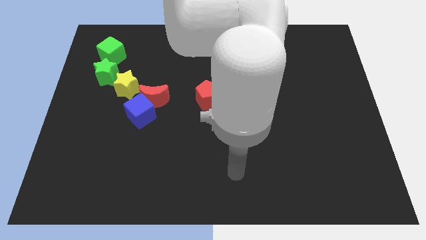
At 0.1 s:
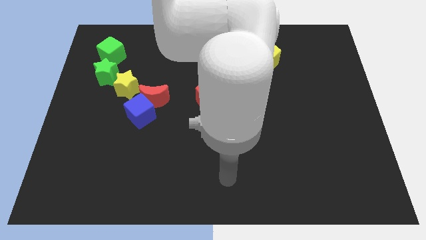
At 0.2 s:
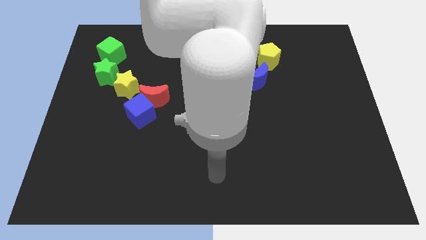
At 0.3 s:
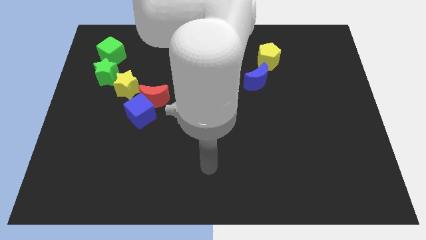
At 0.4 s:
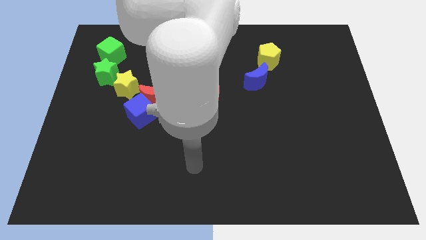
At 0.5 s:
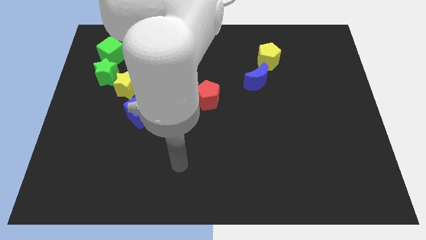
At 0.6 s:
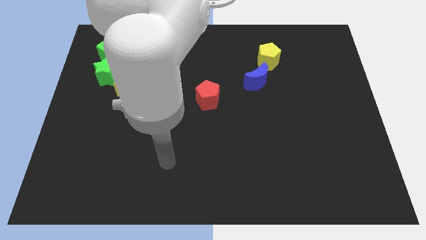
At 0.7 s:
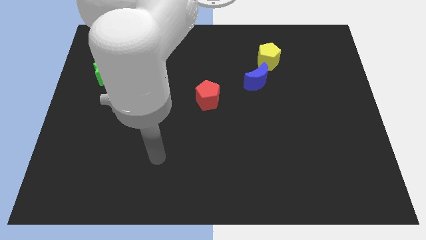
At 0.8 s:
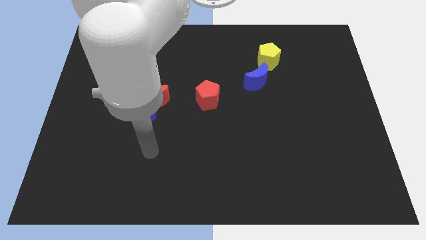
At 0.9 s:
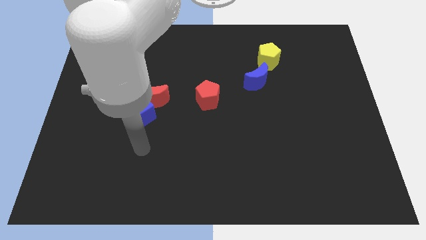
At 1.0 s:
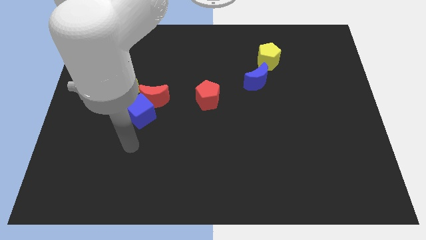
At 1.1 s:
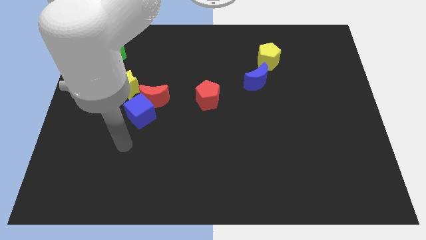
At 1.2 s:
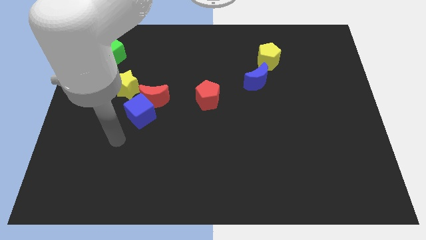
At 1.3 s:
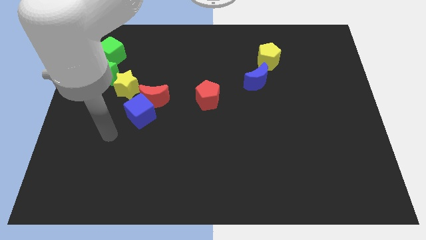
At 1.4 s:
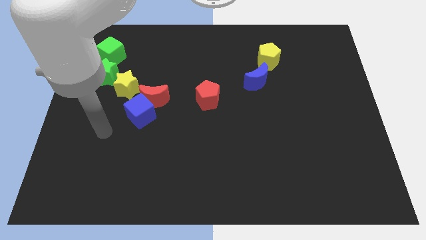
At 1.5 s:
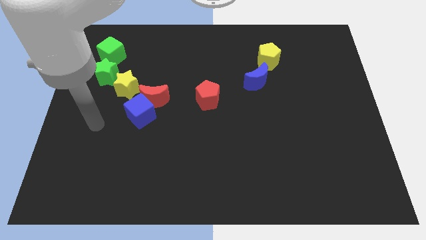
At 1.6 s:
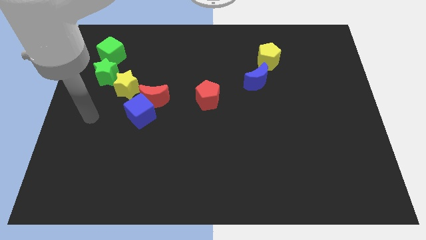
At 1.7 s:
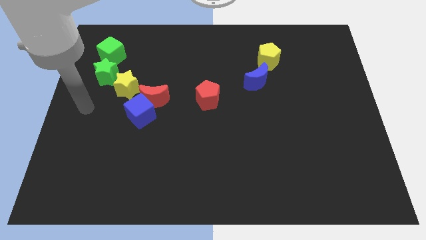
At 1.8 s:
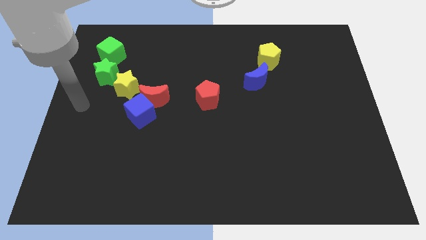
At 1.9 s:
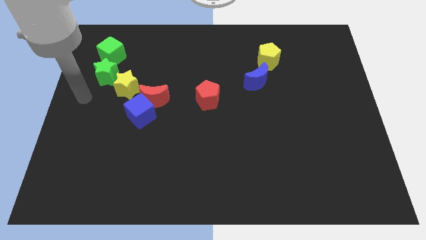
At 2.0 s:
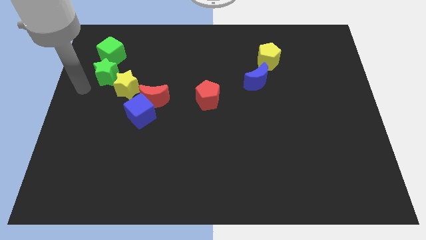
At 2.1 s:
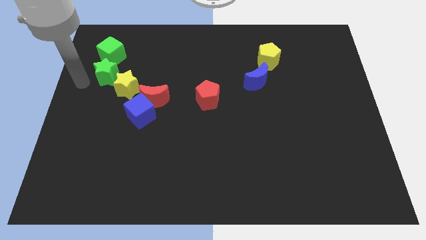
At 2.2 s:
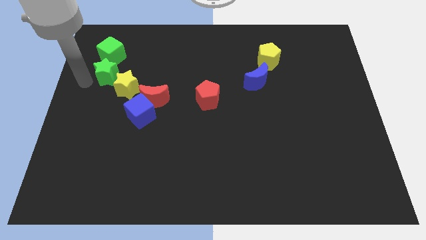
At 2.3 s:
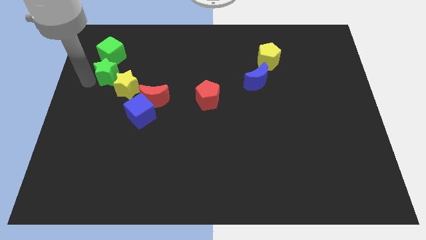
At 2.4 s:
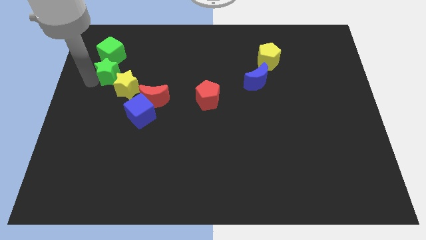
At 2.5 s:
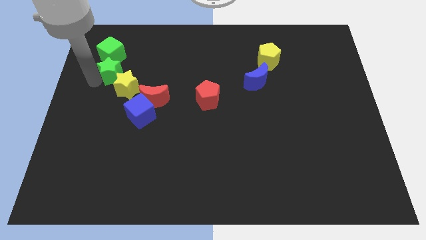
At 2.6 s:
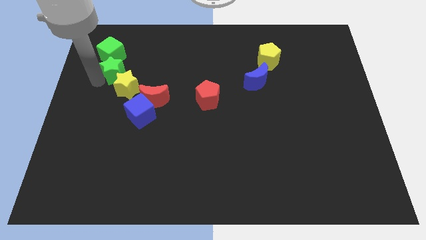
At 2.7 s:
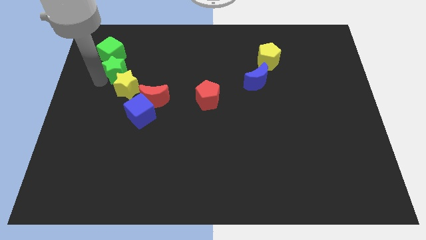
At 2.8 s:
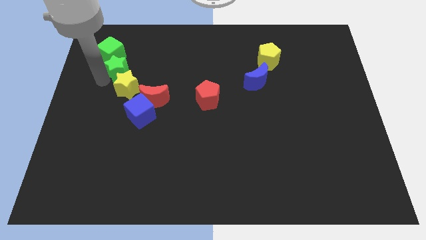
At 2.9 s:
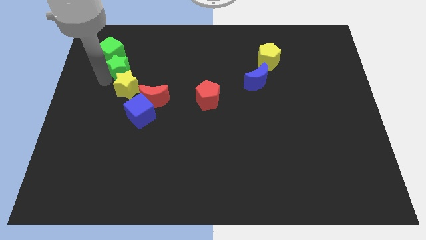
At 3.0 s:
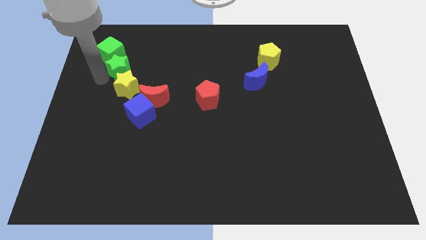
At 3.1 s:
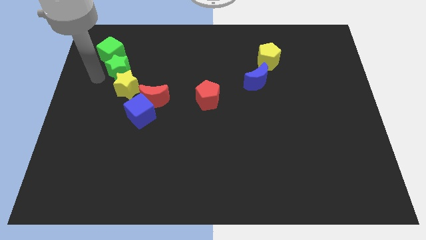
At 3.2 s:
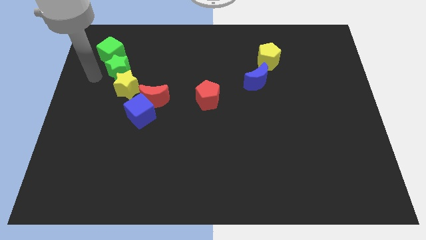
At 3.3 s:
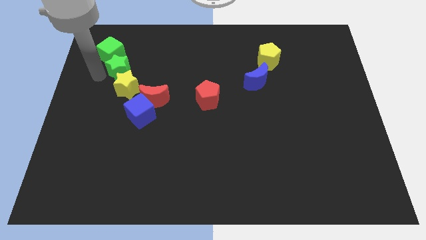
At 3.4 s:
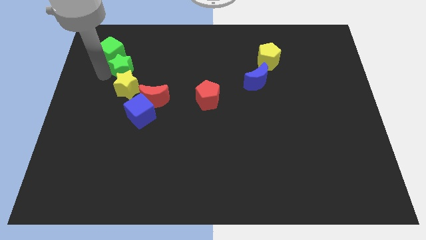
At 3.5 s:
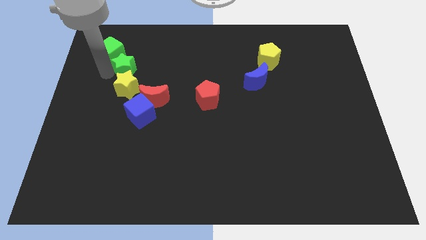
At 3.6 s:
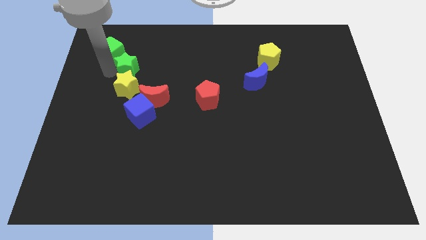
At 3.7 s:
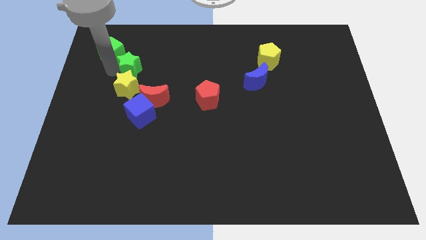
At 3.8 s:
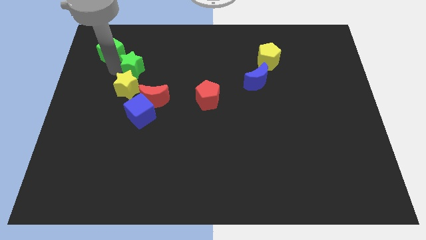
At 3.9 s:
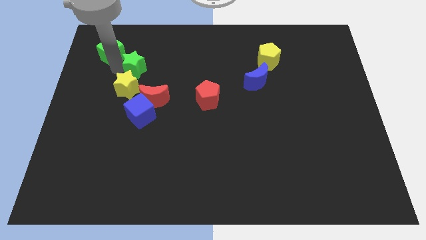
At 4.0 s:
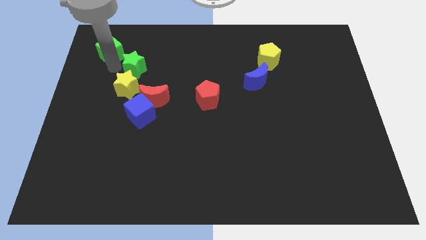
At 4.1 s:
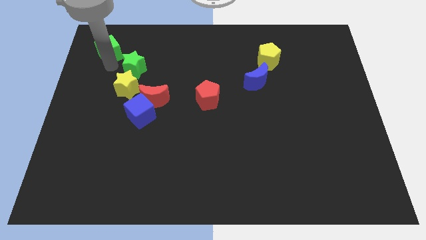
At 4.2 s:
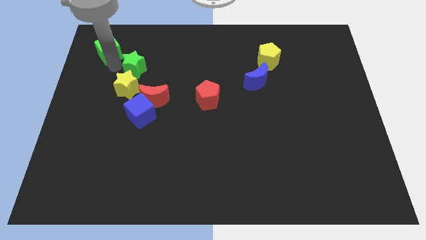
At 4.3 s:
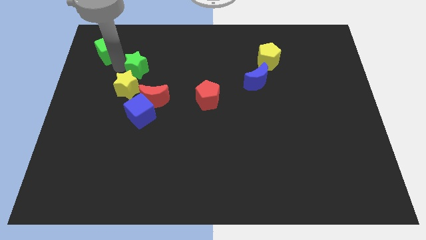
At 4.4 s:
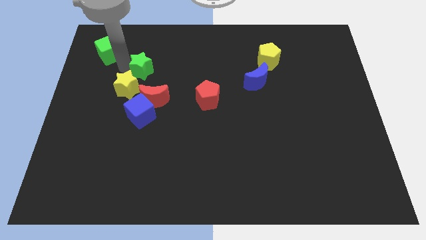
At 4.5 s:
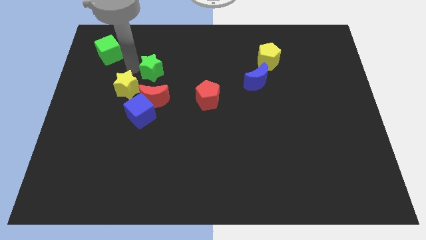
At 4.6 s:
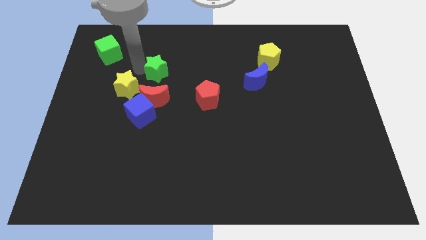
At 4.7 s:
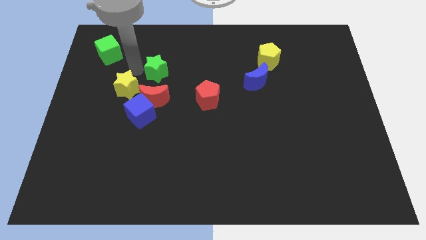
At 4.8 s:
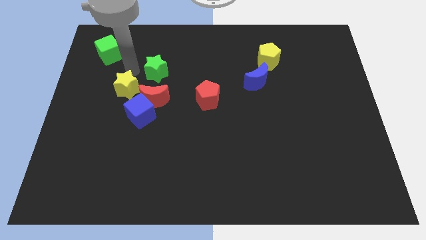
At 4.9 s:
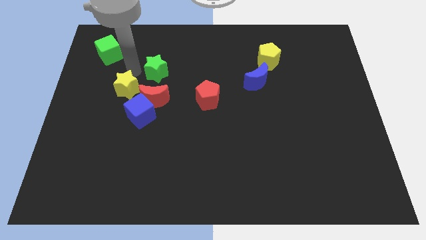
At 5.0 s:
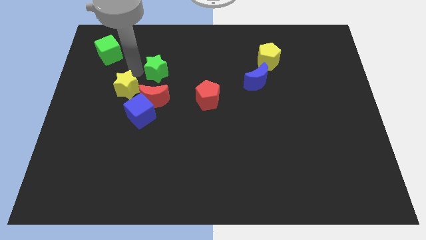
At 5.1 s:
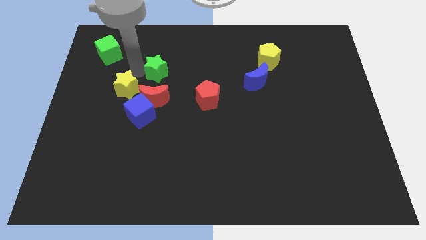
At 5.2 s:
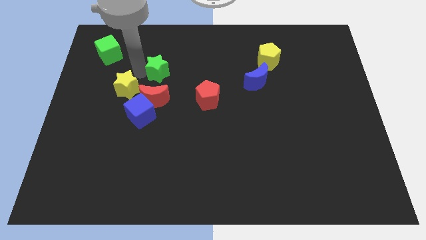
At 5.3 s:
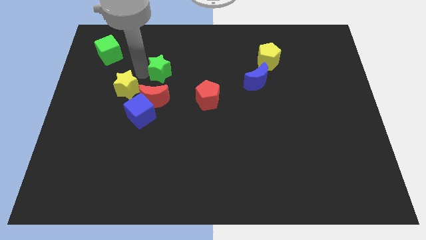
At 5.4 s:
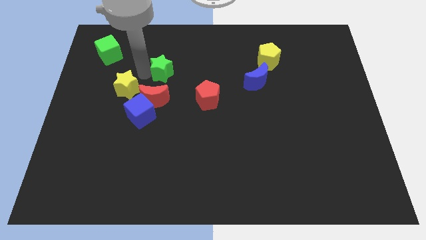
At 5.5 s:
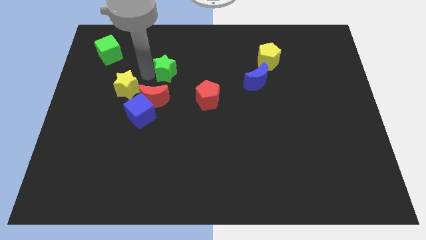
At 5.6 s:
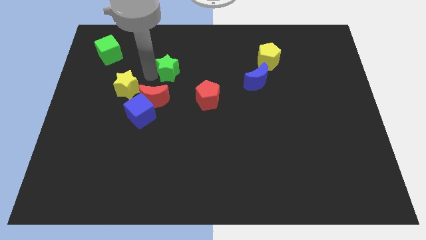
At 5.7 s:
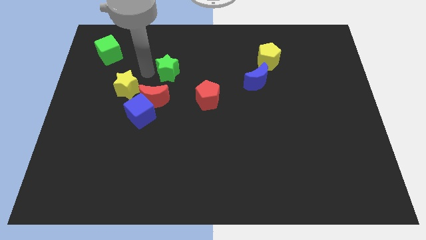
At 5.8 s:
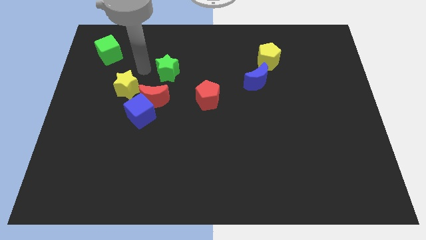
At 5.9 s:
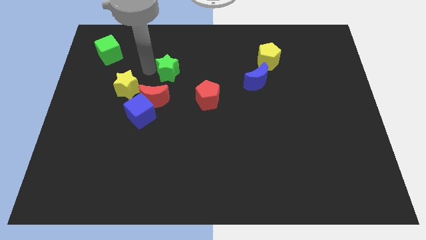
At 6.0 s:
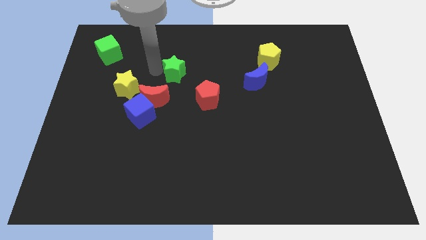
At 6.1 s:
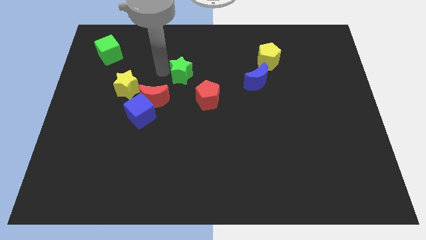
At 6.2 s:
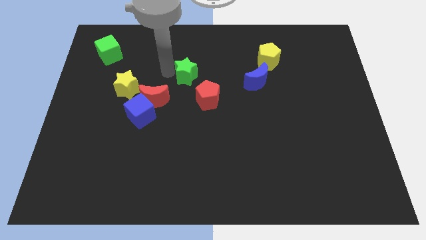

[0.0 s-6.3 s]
push the green star to the right

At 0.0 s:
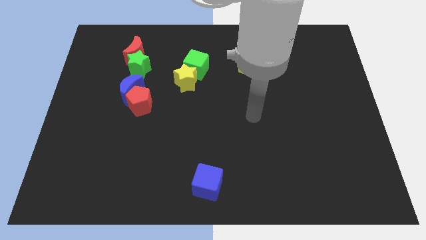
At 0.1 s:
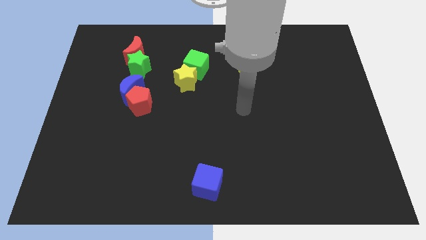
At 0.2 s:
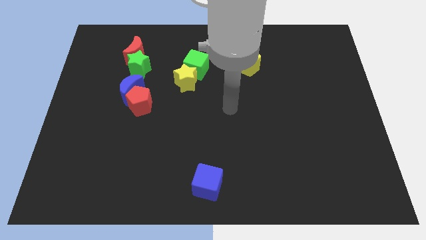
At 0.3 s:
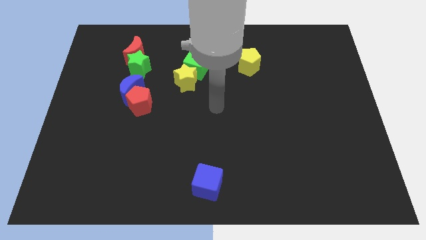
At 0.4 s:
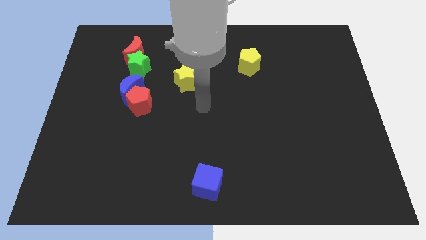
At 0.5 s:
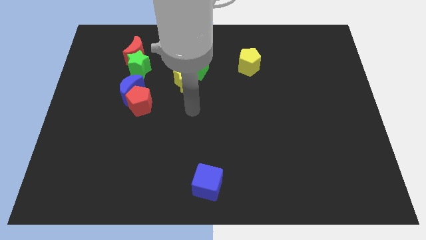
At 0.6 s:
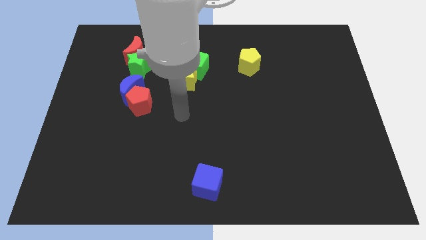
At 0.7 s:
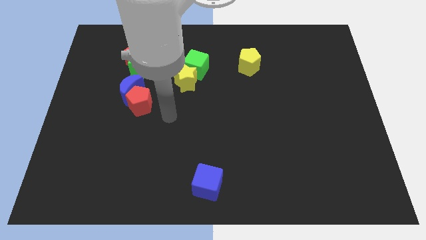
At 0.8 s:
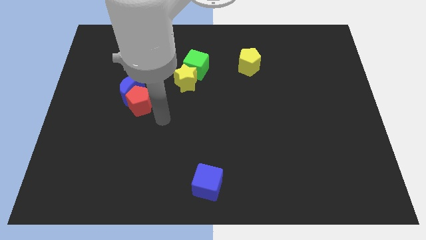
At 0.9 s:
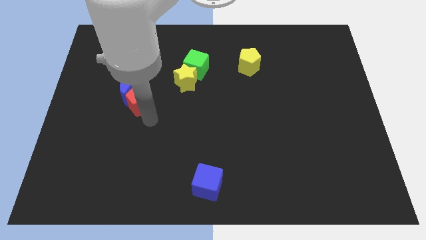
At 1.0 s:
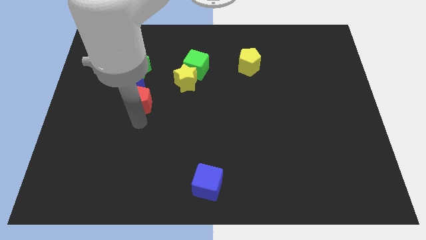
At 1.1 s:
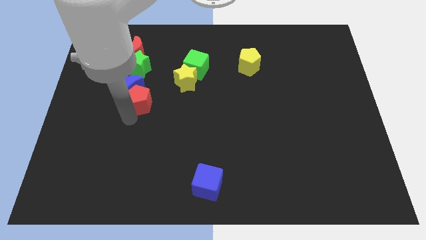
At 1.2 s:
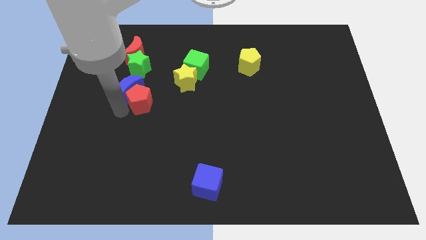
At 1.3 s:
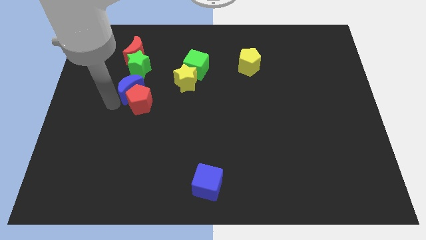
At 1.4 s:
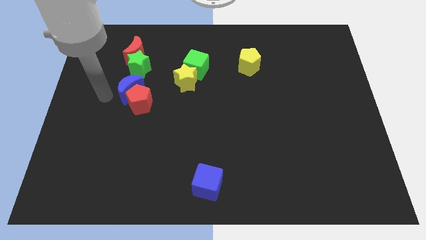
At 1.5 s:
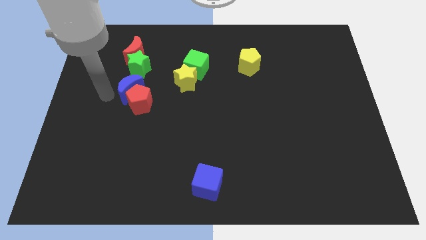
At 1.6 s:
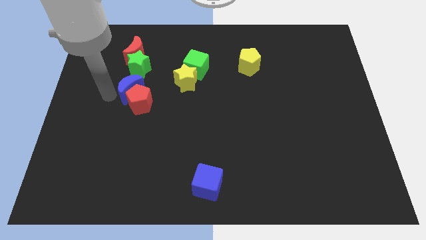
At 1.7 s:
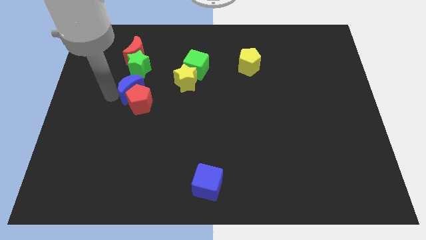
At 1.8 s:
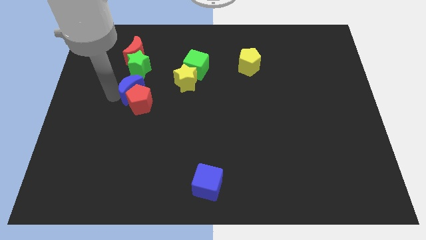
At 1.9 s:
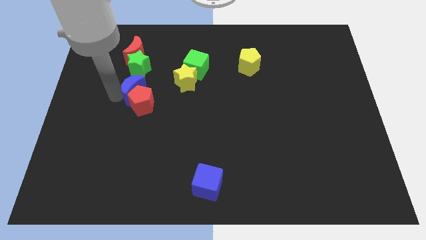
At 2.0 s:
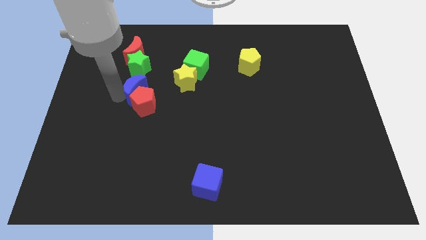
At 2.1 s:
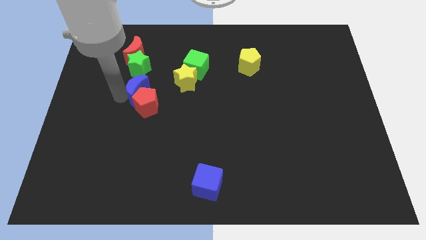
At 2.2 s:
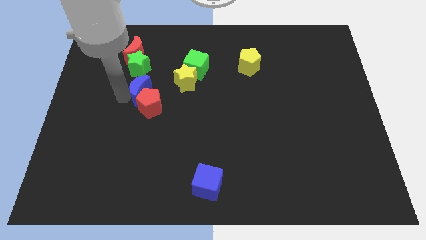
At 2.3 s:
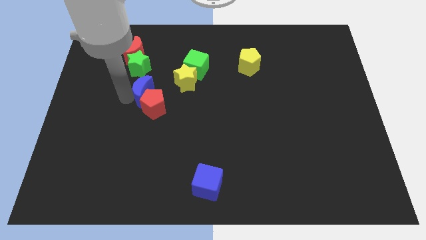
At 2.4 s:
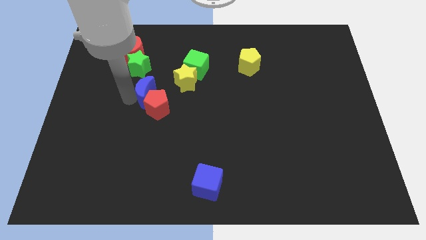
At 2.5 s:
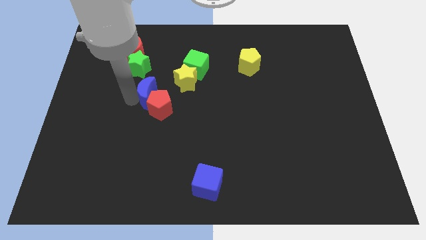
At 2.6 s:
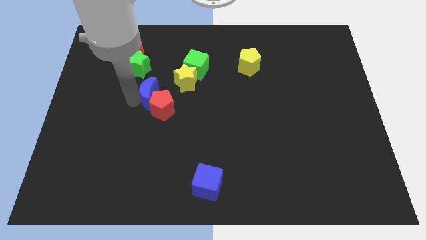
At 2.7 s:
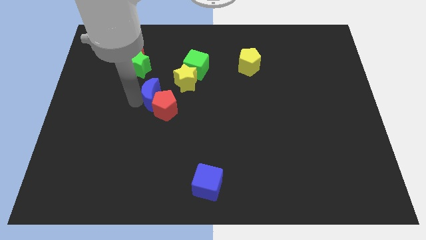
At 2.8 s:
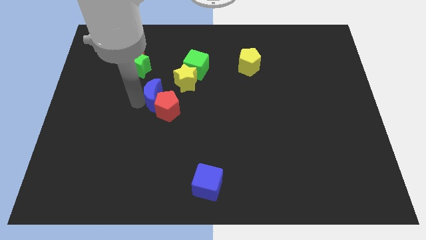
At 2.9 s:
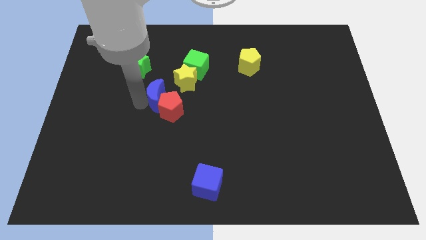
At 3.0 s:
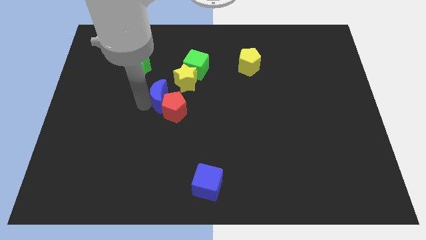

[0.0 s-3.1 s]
push the blue moon a little bit right
